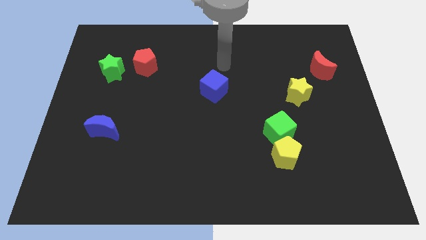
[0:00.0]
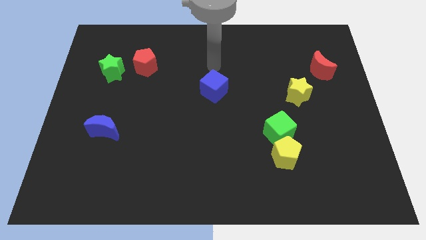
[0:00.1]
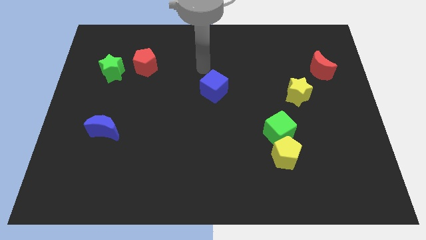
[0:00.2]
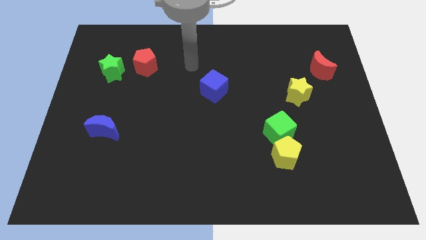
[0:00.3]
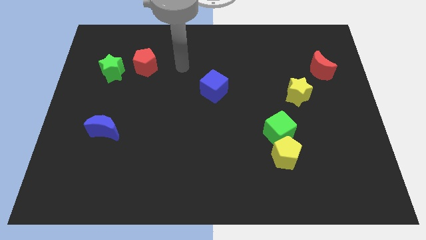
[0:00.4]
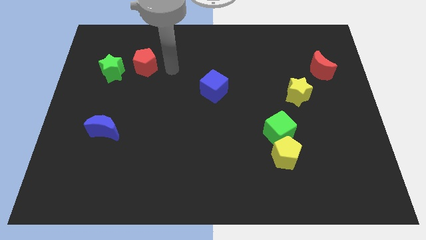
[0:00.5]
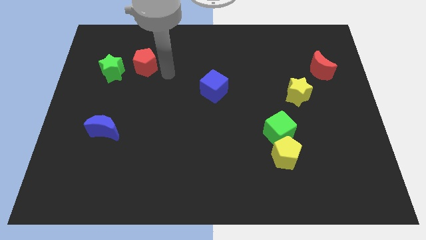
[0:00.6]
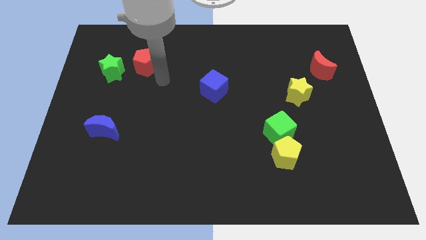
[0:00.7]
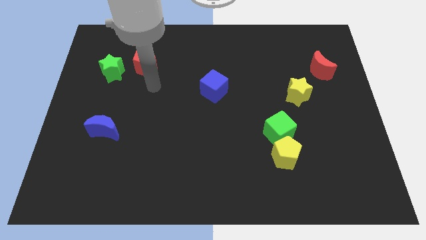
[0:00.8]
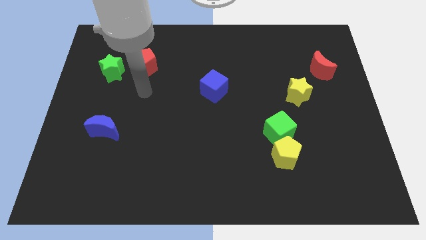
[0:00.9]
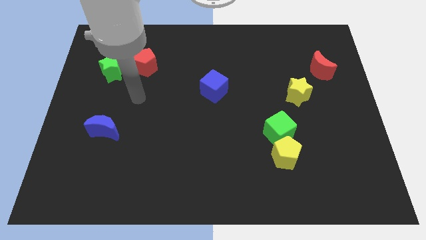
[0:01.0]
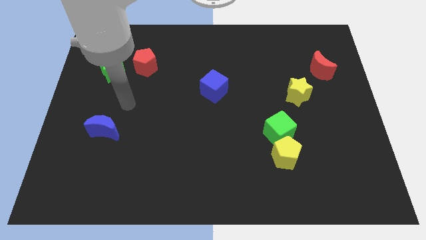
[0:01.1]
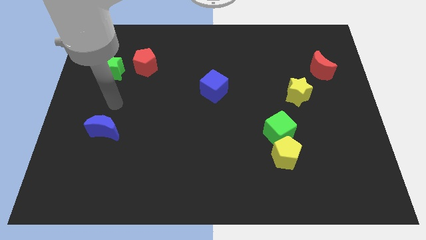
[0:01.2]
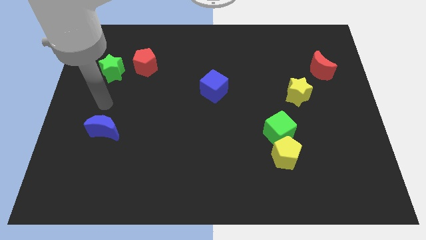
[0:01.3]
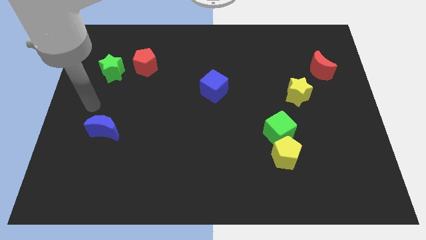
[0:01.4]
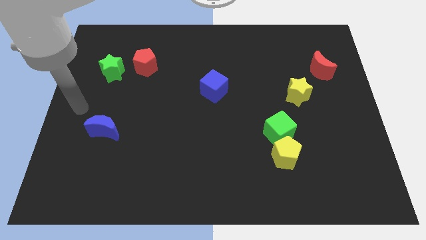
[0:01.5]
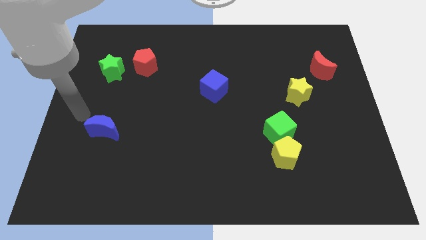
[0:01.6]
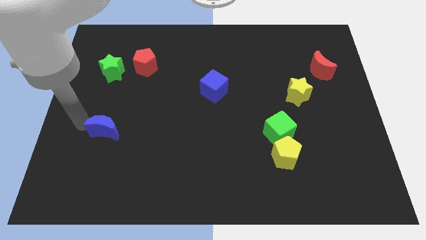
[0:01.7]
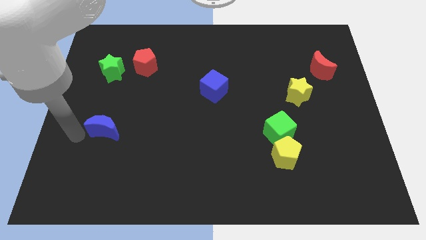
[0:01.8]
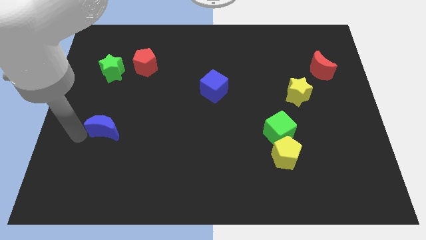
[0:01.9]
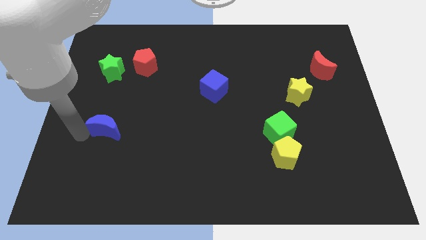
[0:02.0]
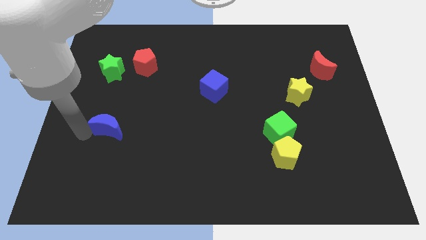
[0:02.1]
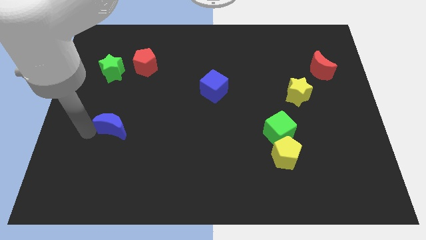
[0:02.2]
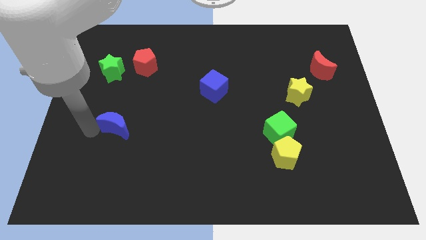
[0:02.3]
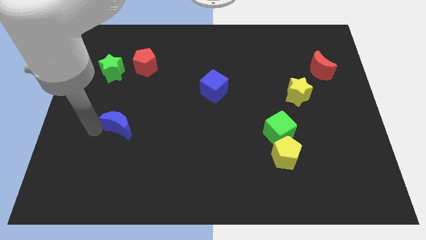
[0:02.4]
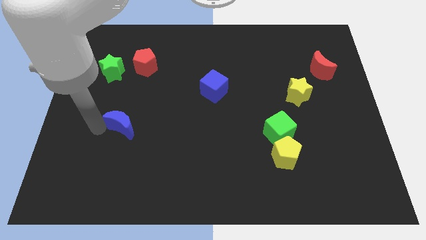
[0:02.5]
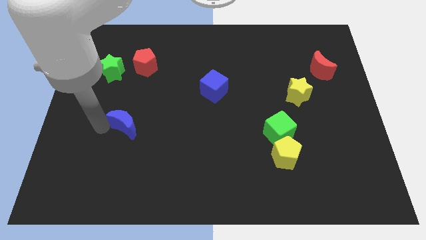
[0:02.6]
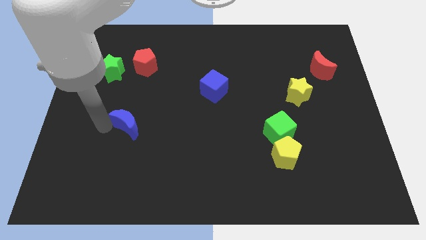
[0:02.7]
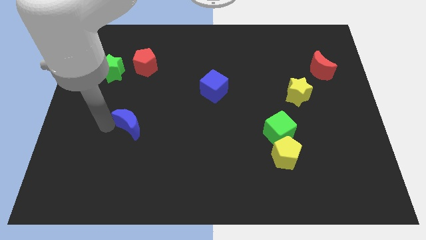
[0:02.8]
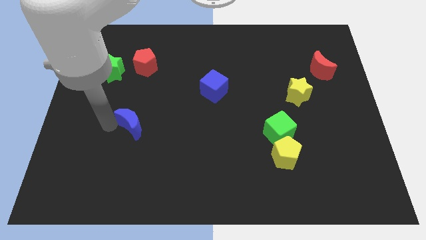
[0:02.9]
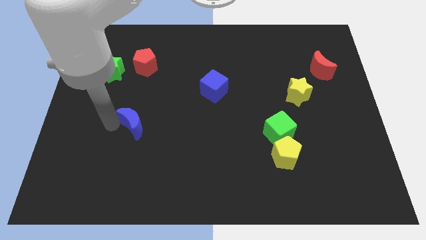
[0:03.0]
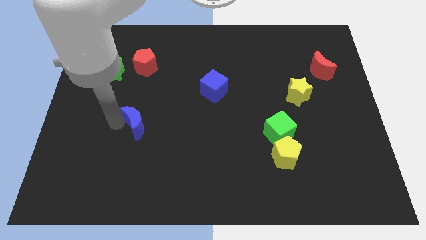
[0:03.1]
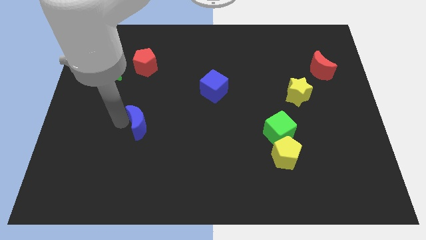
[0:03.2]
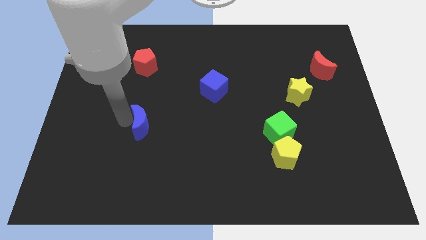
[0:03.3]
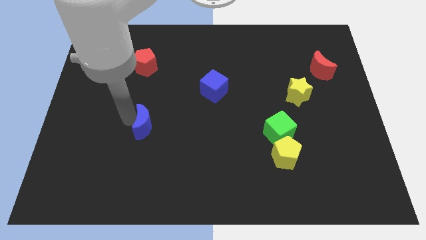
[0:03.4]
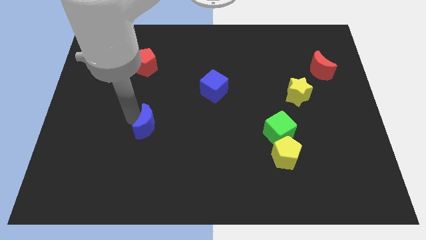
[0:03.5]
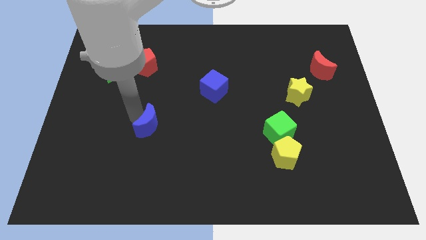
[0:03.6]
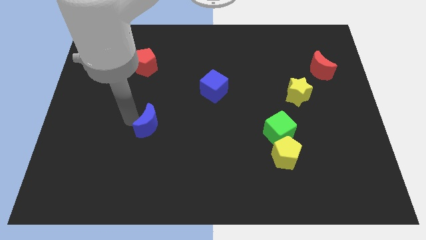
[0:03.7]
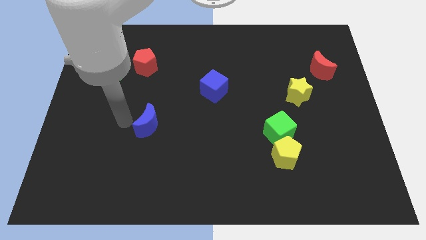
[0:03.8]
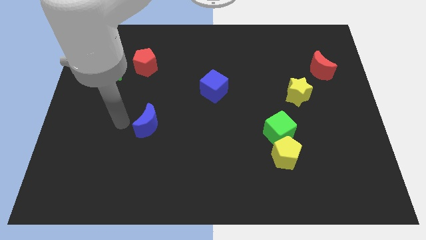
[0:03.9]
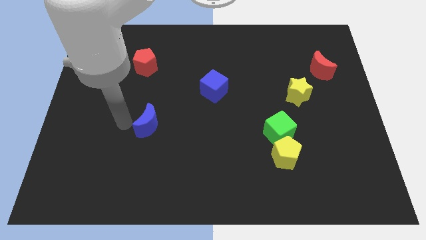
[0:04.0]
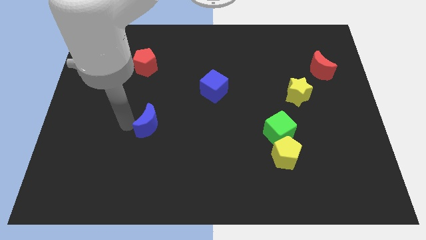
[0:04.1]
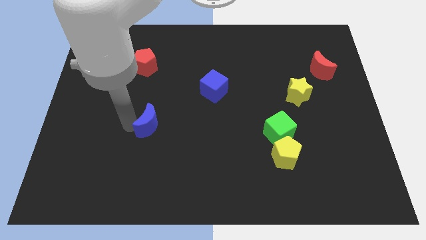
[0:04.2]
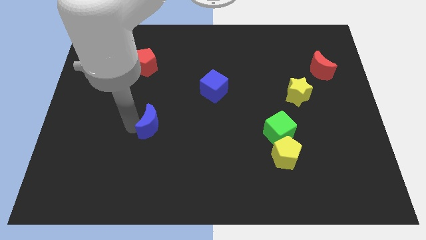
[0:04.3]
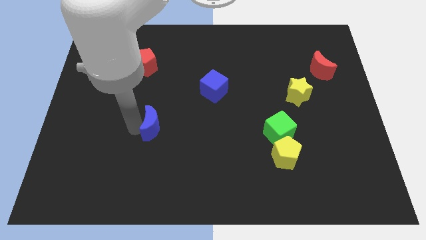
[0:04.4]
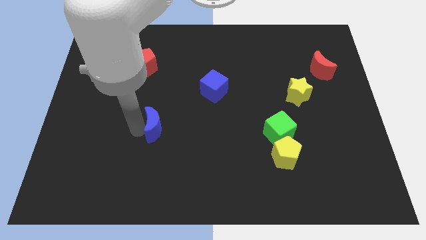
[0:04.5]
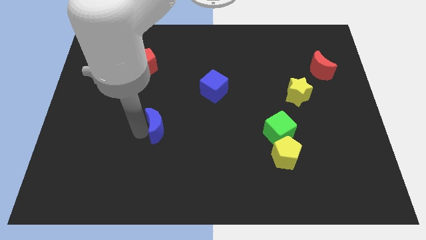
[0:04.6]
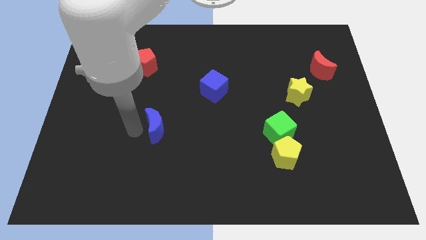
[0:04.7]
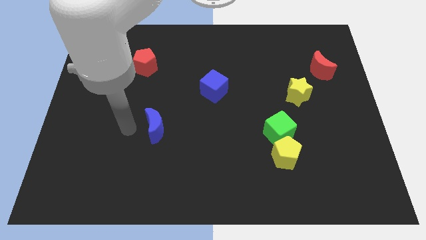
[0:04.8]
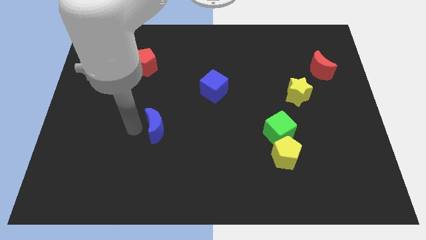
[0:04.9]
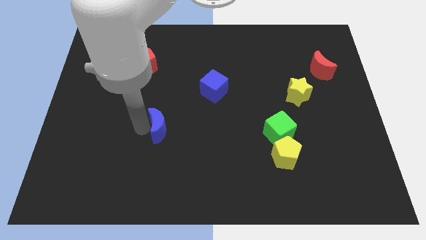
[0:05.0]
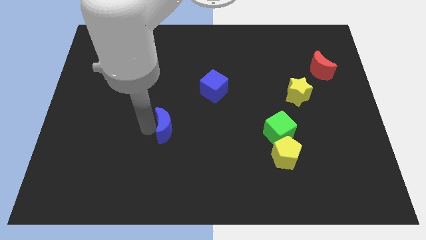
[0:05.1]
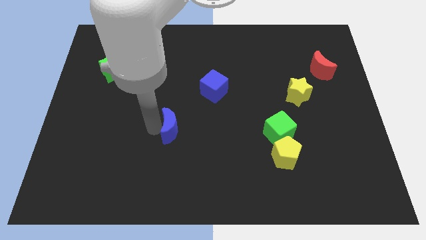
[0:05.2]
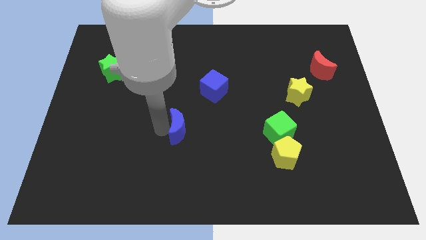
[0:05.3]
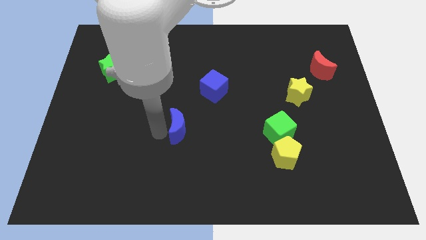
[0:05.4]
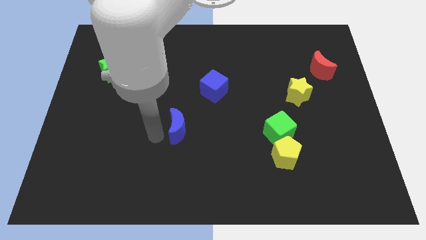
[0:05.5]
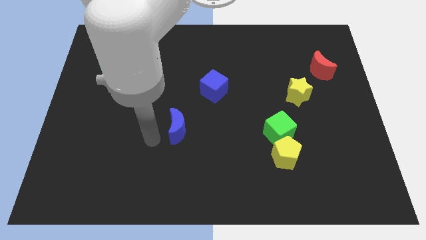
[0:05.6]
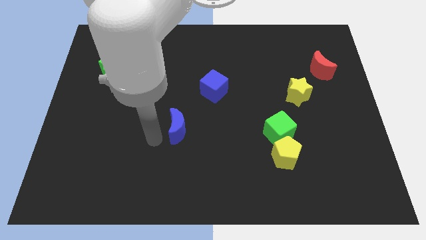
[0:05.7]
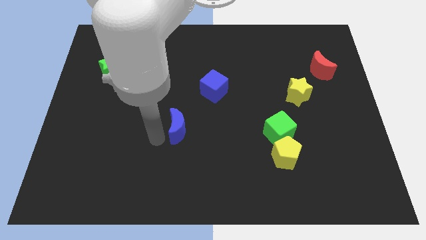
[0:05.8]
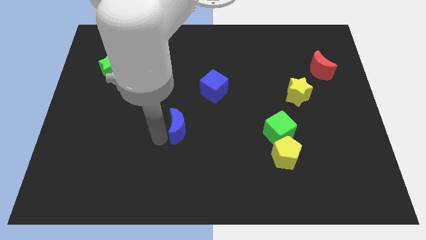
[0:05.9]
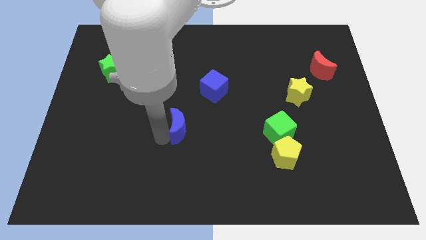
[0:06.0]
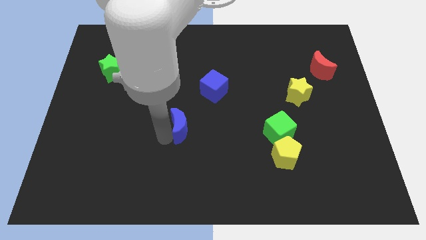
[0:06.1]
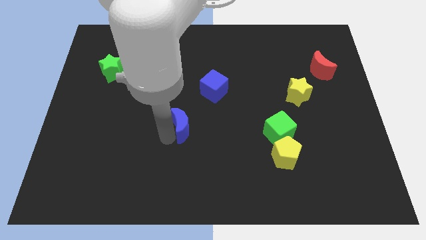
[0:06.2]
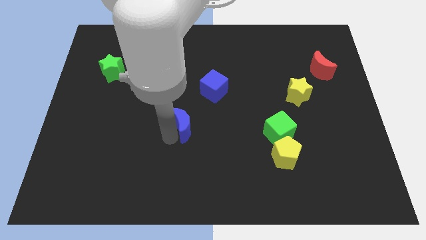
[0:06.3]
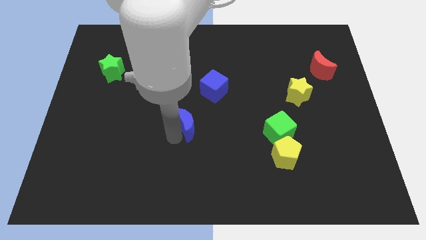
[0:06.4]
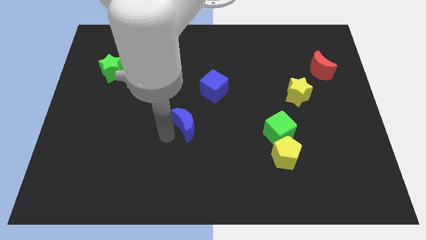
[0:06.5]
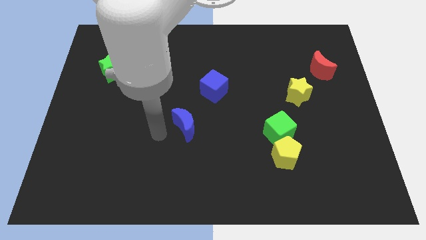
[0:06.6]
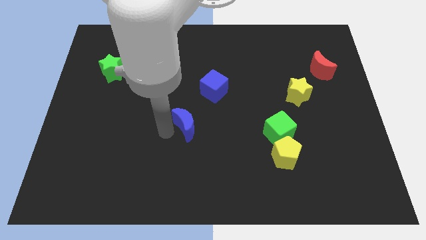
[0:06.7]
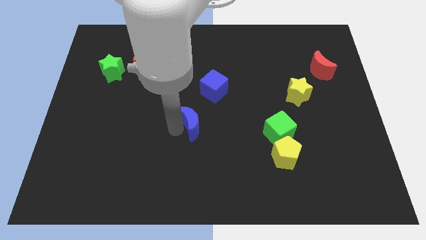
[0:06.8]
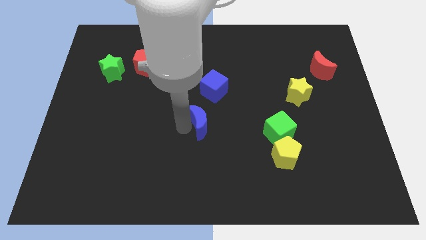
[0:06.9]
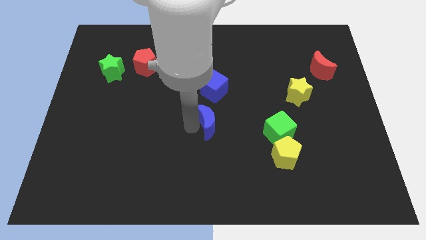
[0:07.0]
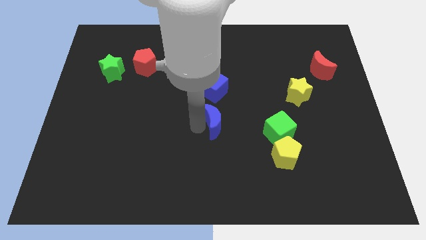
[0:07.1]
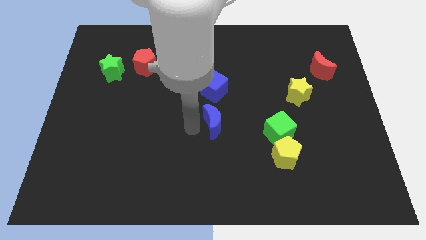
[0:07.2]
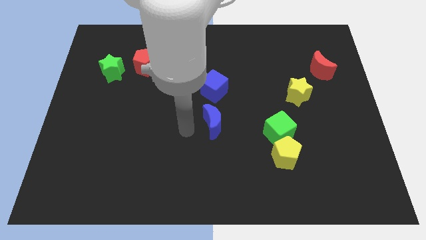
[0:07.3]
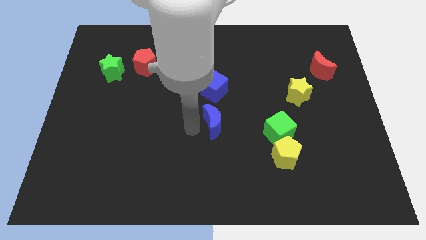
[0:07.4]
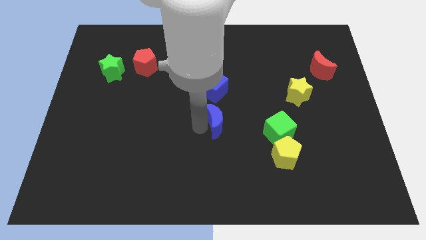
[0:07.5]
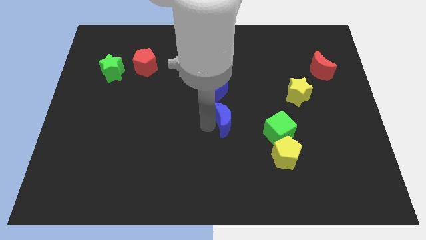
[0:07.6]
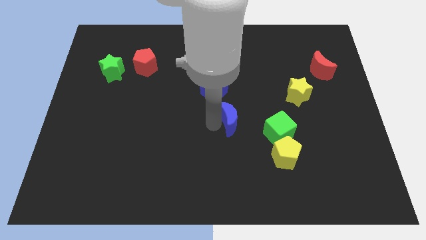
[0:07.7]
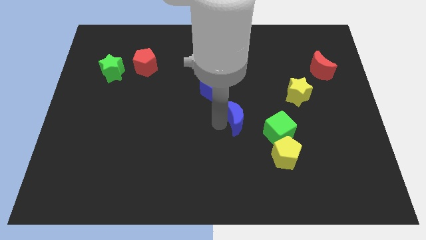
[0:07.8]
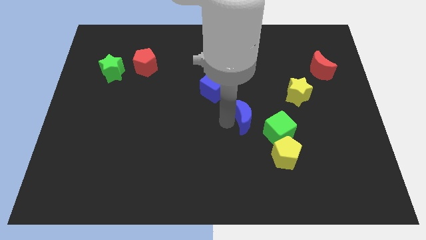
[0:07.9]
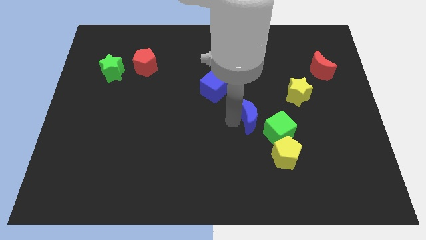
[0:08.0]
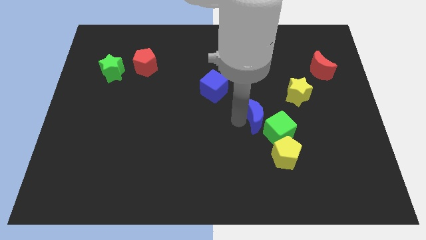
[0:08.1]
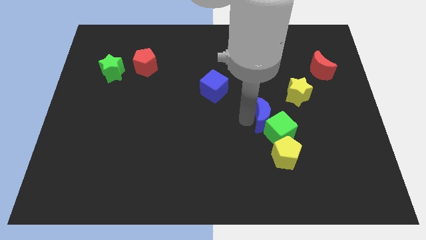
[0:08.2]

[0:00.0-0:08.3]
slide the blue moon to the top of the yellow pentagon
